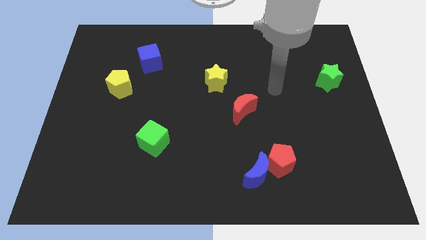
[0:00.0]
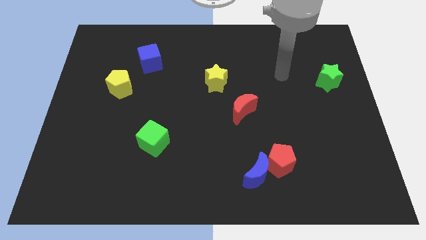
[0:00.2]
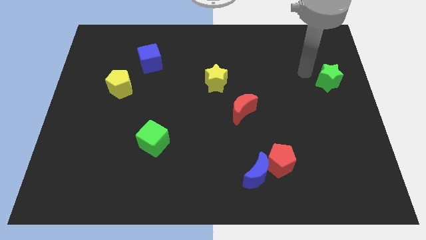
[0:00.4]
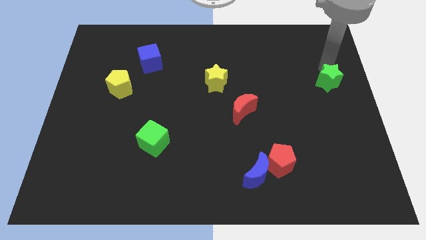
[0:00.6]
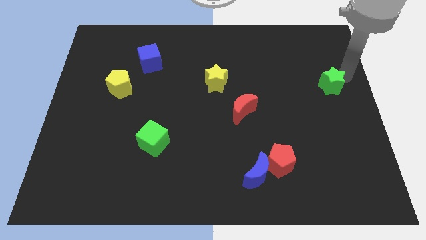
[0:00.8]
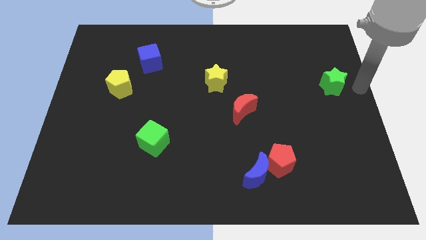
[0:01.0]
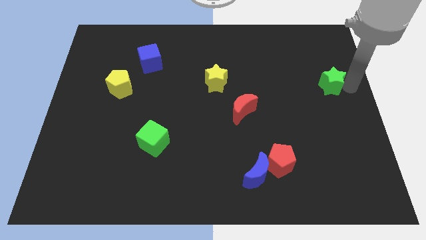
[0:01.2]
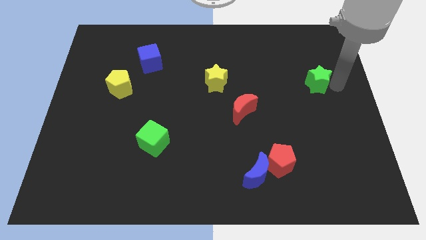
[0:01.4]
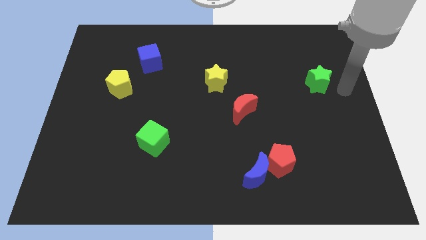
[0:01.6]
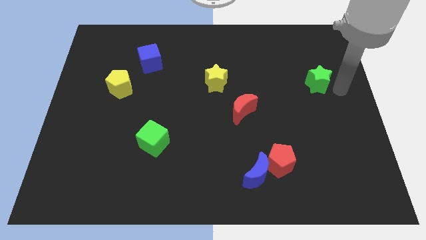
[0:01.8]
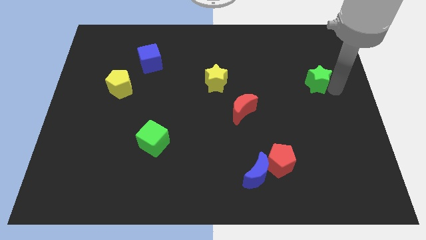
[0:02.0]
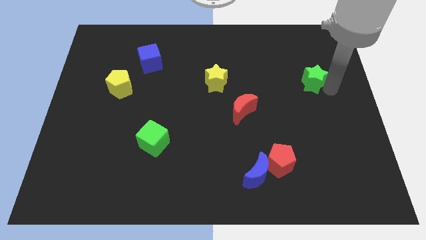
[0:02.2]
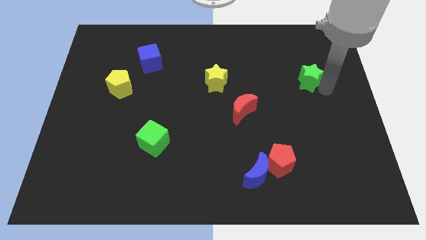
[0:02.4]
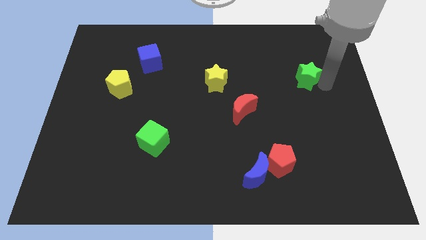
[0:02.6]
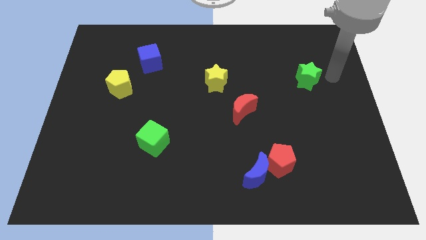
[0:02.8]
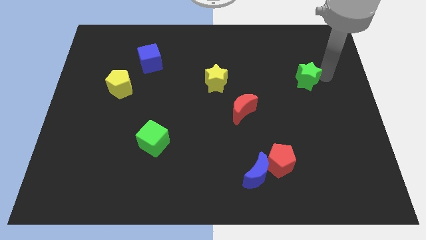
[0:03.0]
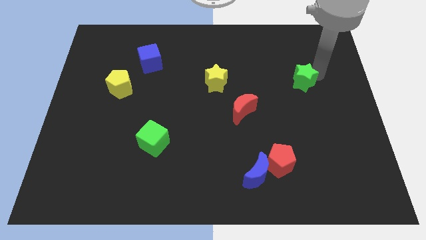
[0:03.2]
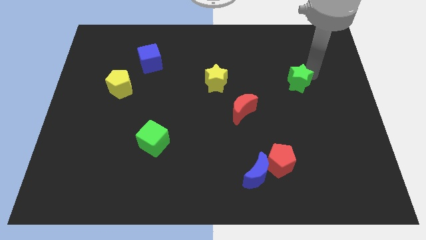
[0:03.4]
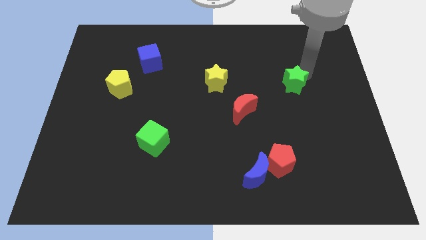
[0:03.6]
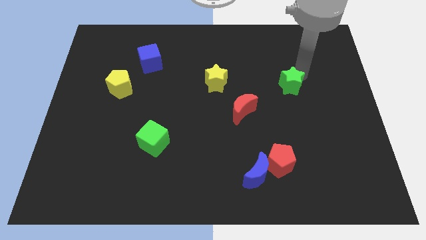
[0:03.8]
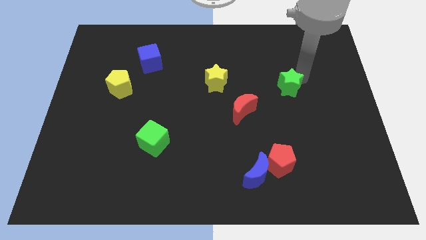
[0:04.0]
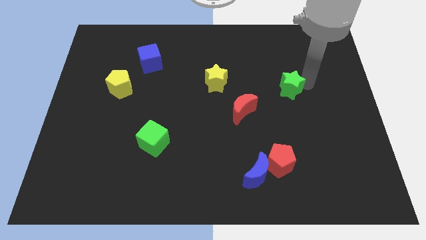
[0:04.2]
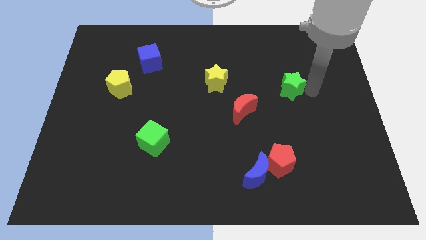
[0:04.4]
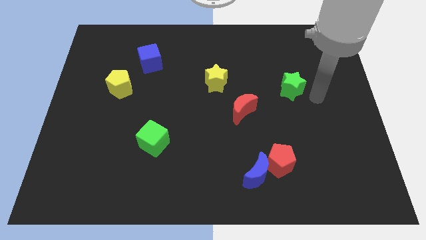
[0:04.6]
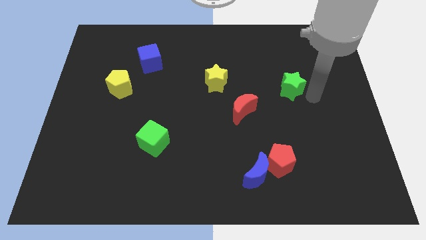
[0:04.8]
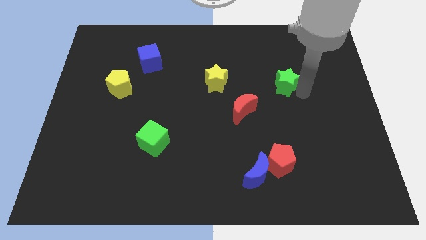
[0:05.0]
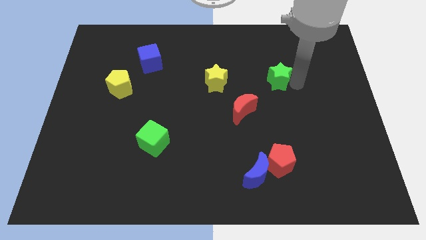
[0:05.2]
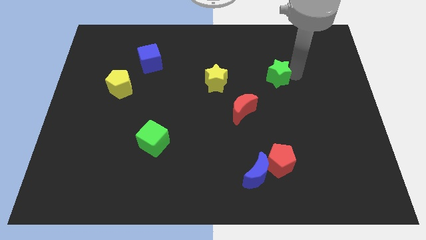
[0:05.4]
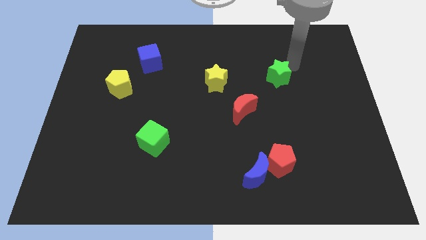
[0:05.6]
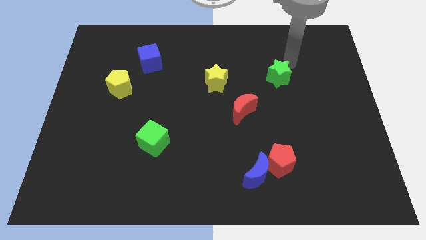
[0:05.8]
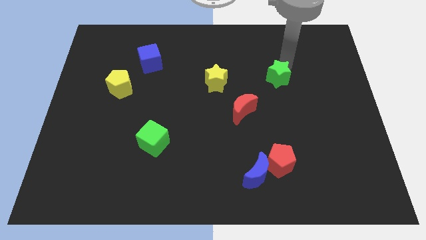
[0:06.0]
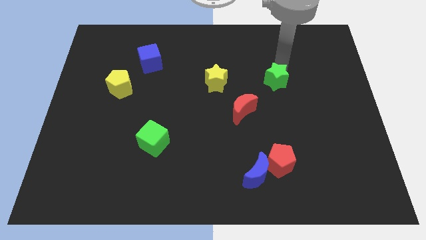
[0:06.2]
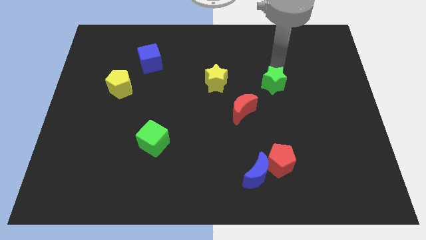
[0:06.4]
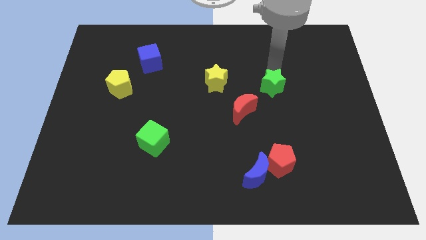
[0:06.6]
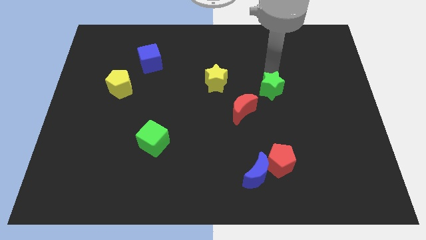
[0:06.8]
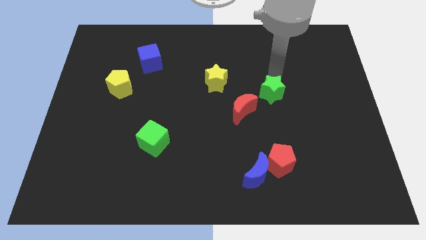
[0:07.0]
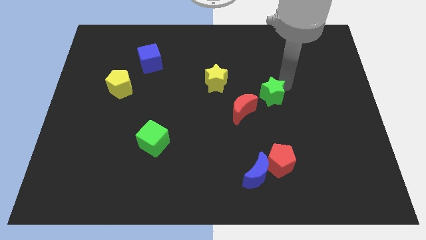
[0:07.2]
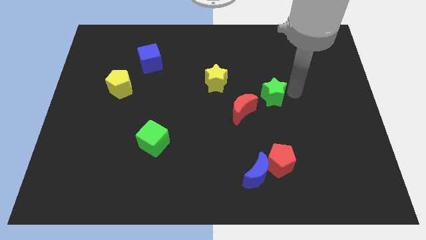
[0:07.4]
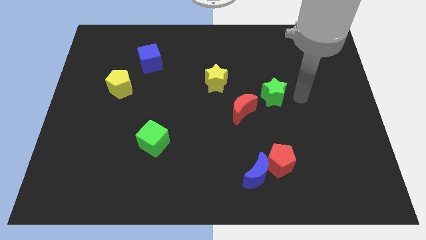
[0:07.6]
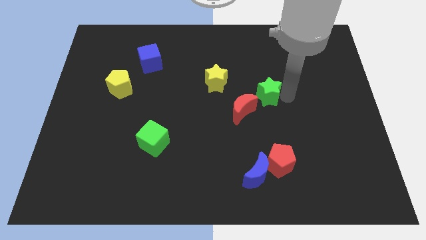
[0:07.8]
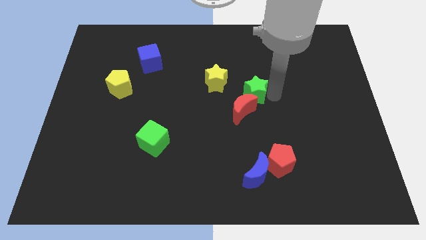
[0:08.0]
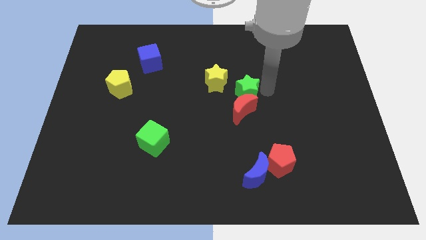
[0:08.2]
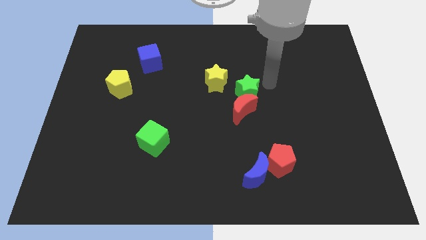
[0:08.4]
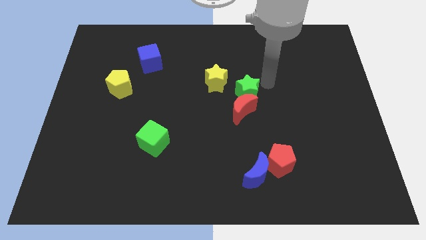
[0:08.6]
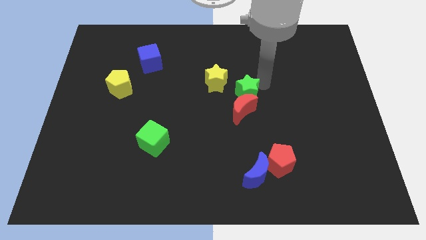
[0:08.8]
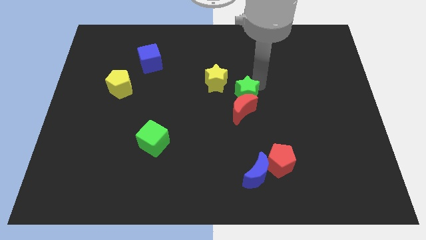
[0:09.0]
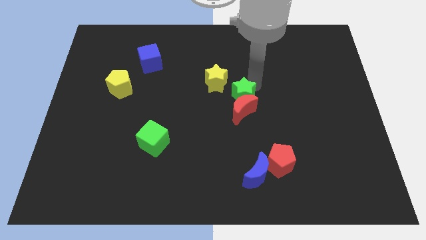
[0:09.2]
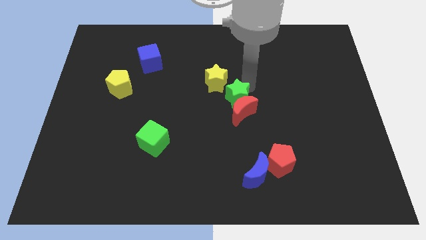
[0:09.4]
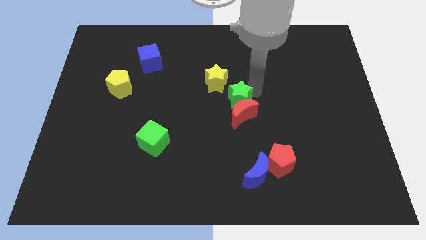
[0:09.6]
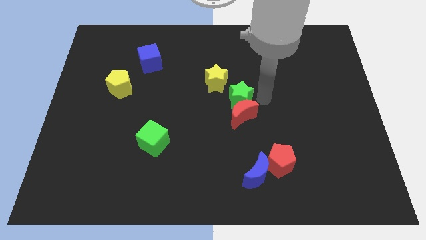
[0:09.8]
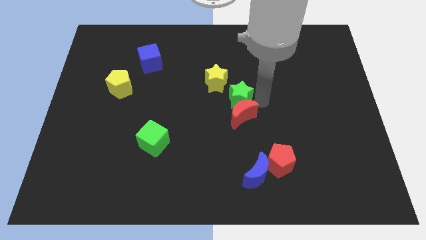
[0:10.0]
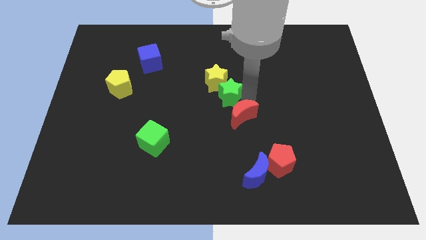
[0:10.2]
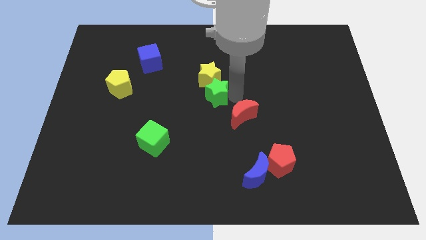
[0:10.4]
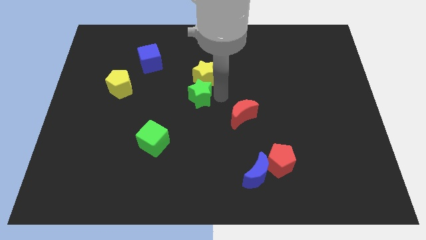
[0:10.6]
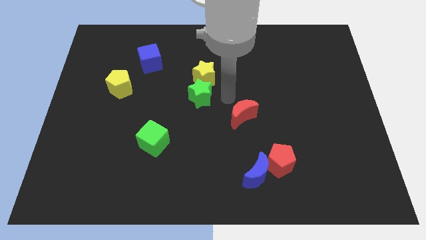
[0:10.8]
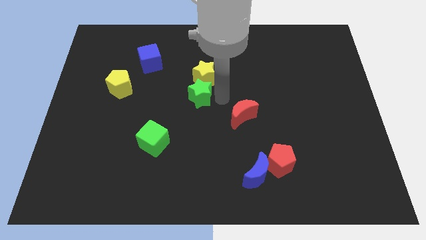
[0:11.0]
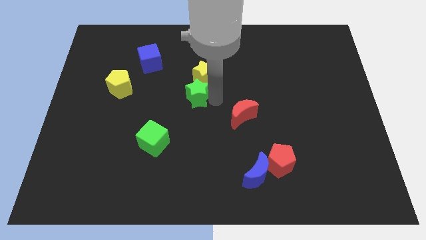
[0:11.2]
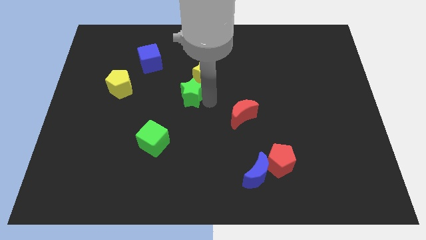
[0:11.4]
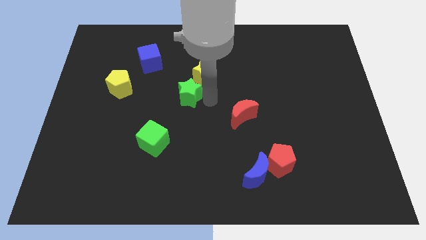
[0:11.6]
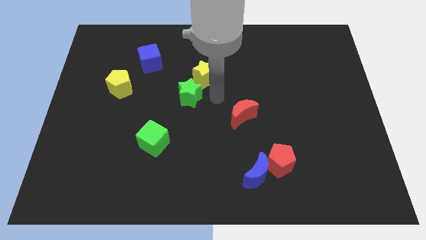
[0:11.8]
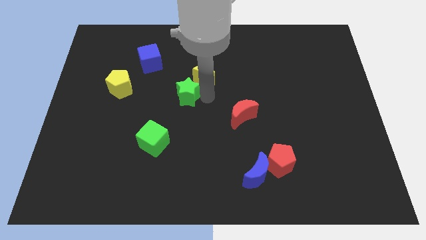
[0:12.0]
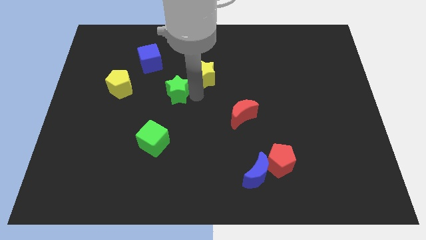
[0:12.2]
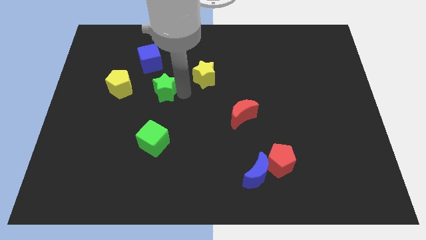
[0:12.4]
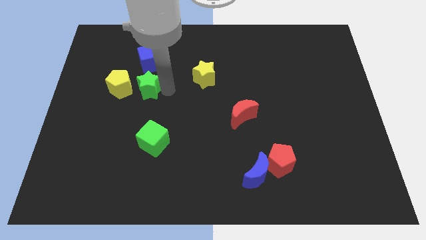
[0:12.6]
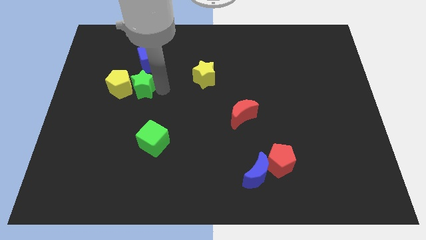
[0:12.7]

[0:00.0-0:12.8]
push the green star to the yellow pentagon

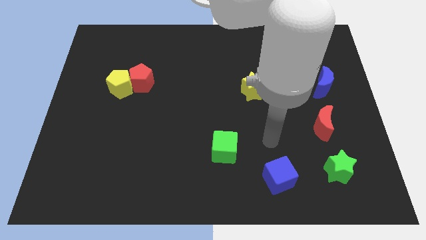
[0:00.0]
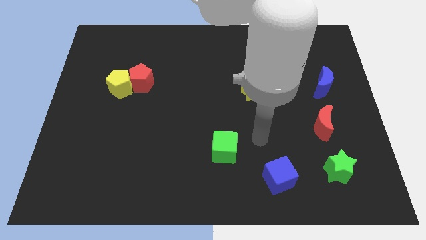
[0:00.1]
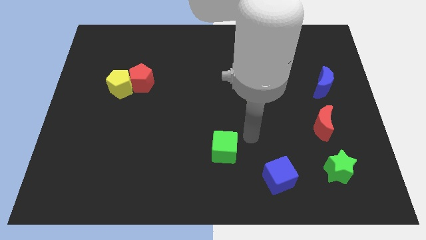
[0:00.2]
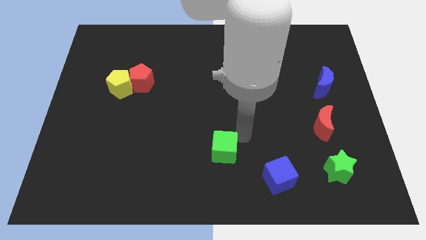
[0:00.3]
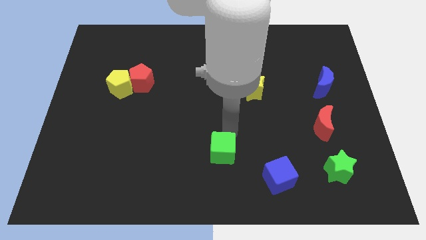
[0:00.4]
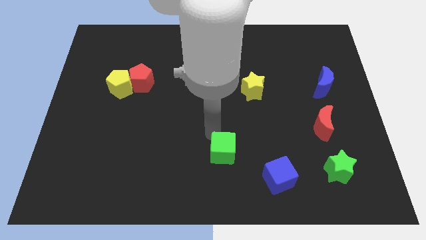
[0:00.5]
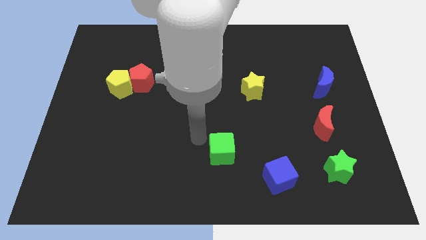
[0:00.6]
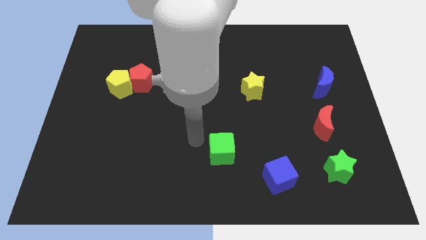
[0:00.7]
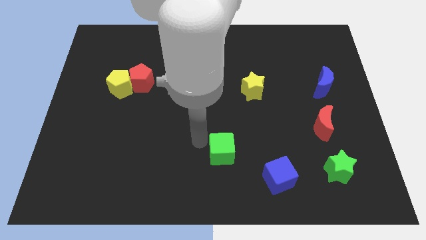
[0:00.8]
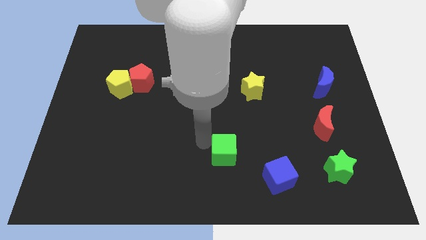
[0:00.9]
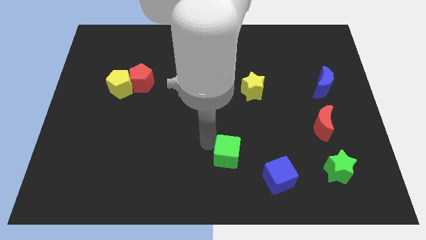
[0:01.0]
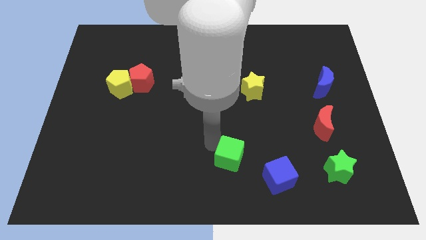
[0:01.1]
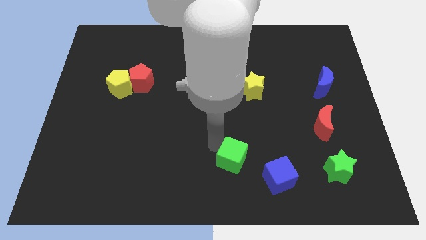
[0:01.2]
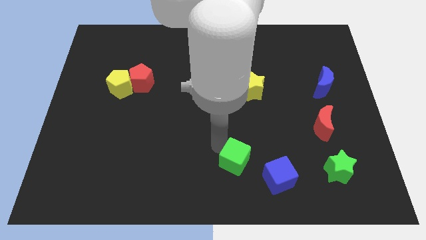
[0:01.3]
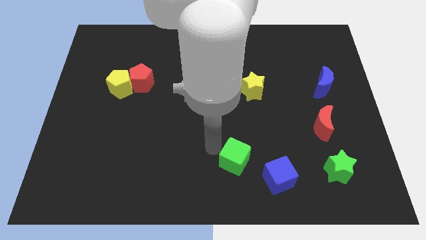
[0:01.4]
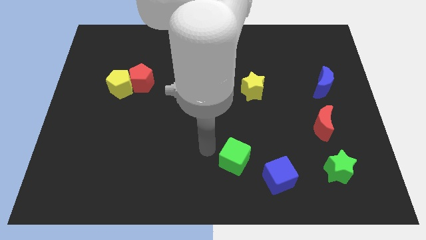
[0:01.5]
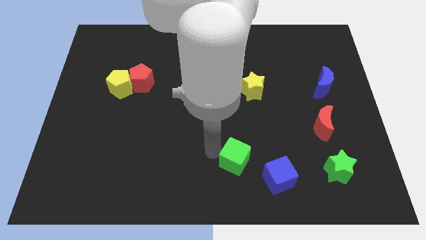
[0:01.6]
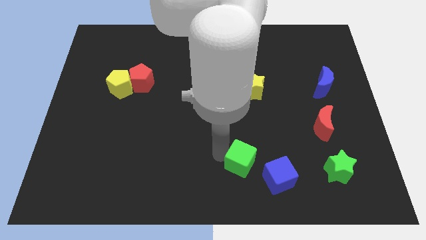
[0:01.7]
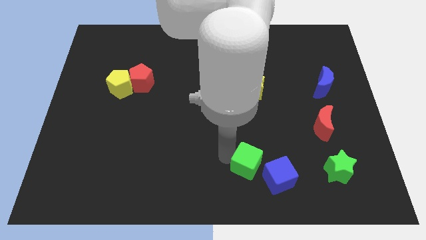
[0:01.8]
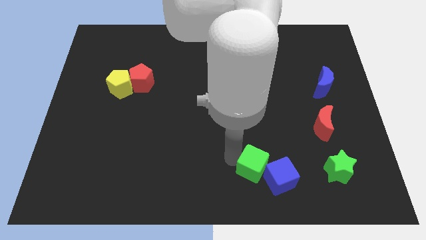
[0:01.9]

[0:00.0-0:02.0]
slide the green cube to the blue cube
